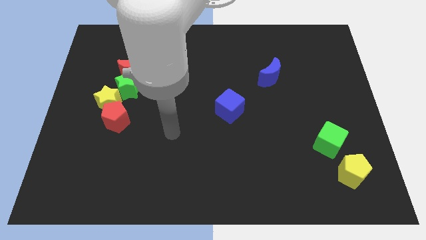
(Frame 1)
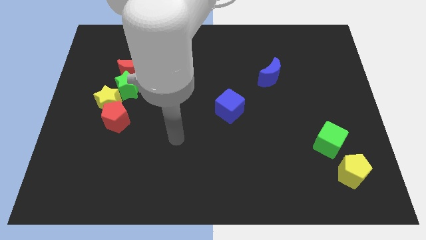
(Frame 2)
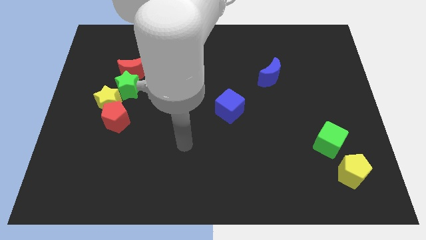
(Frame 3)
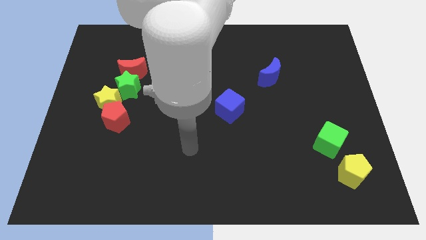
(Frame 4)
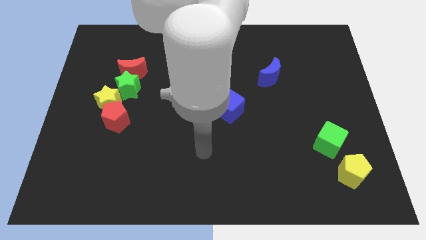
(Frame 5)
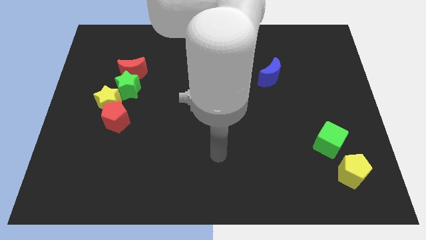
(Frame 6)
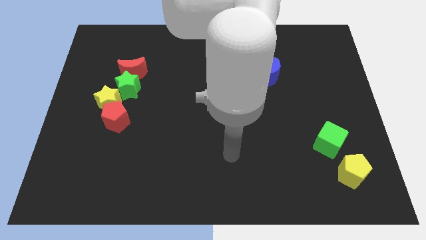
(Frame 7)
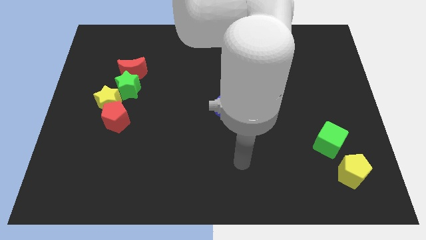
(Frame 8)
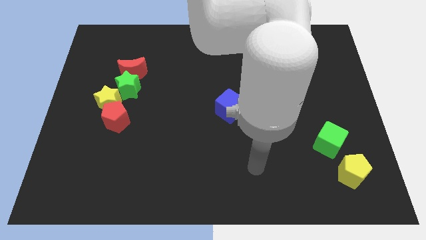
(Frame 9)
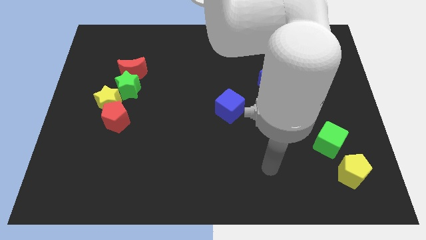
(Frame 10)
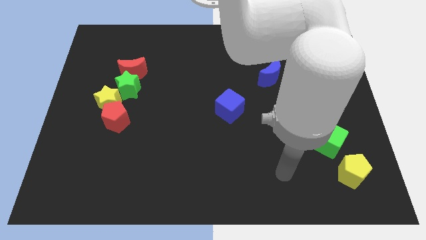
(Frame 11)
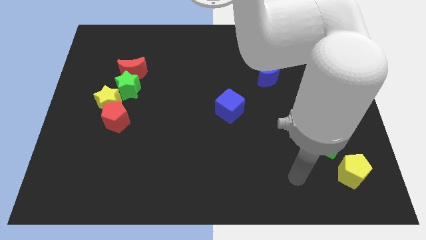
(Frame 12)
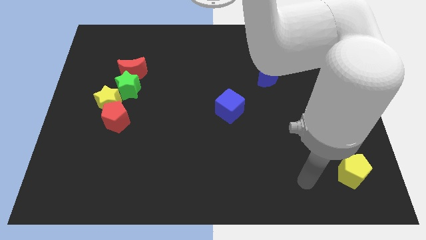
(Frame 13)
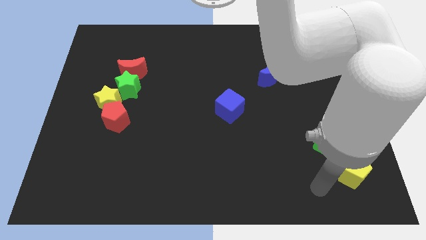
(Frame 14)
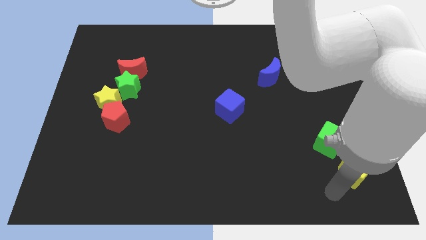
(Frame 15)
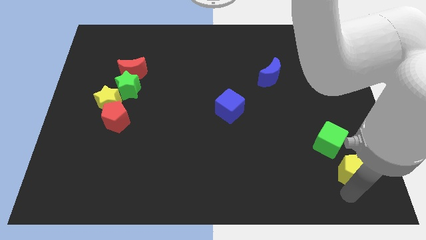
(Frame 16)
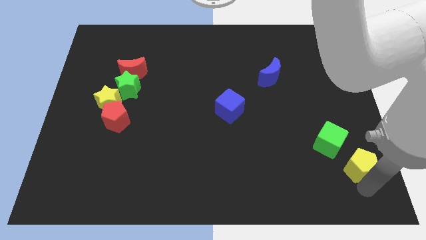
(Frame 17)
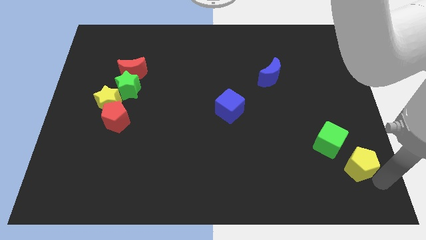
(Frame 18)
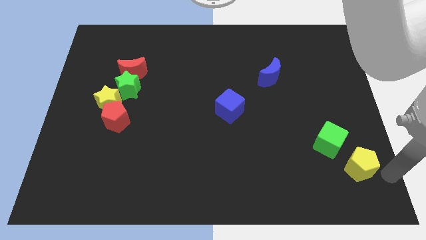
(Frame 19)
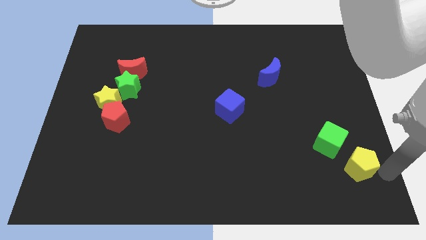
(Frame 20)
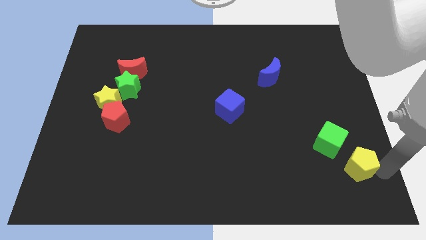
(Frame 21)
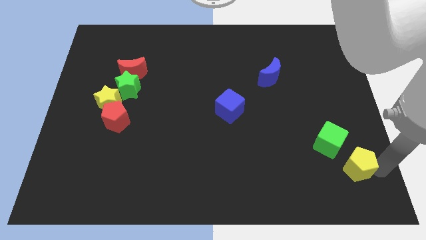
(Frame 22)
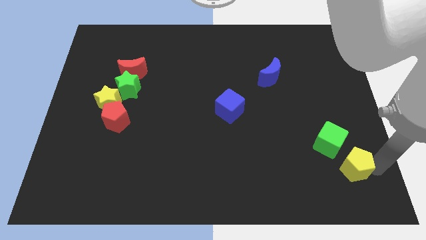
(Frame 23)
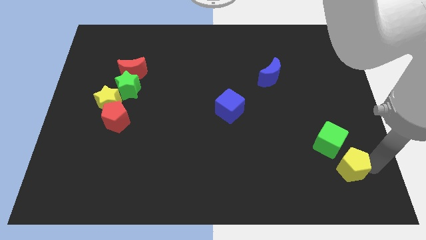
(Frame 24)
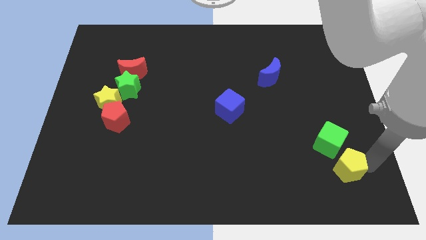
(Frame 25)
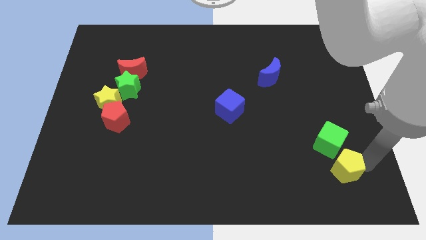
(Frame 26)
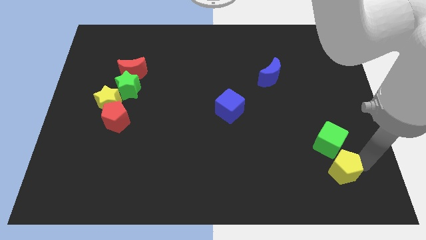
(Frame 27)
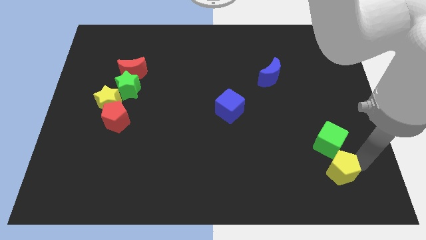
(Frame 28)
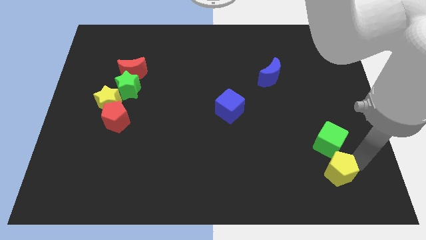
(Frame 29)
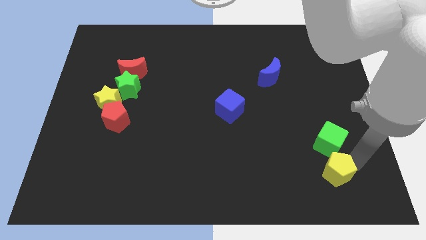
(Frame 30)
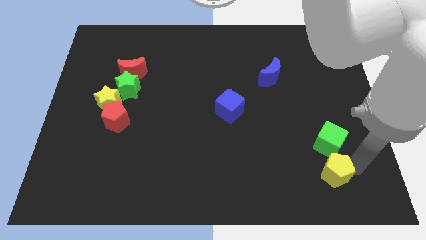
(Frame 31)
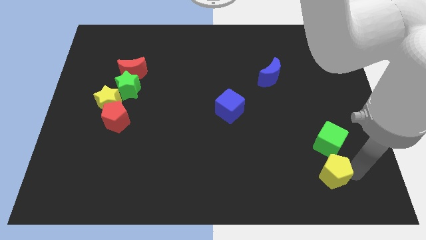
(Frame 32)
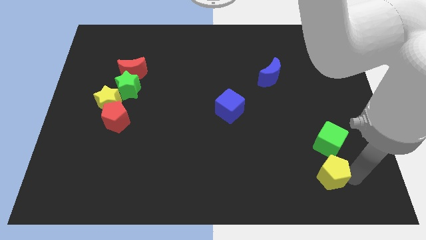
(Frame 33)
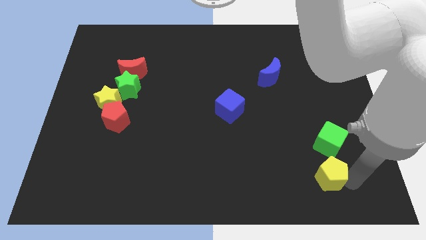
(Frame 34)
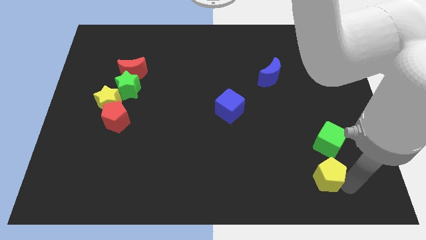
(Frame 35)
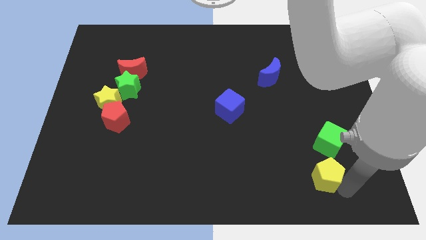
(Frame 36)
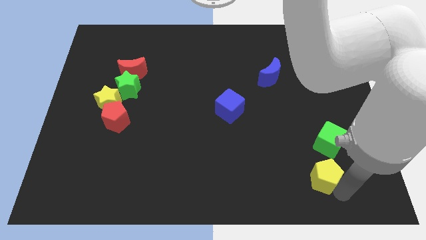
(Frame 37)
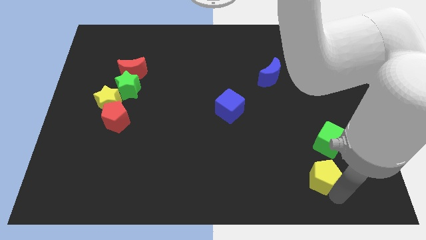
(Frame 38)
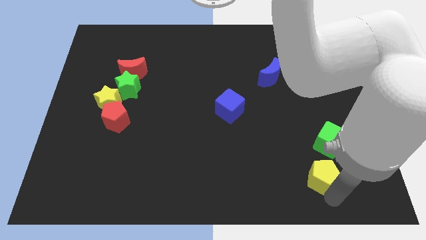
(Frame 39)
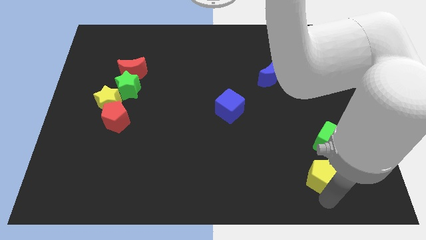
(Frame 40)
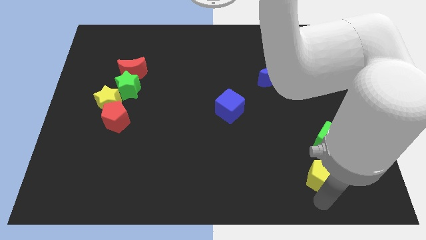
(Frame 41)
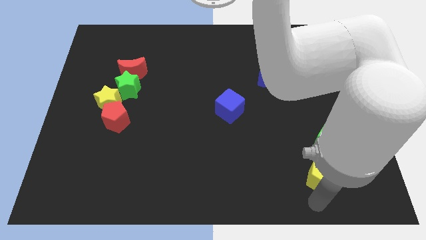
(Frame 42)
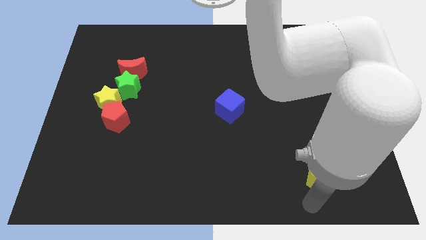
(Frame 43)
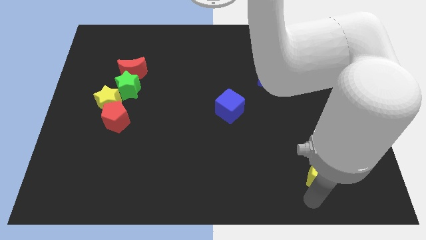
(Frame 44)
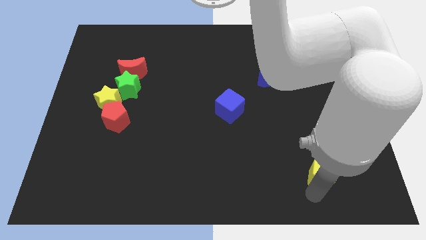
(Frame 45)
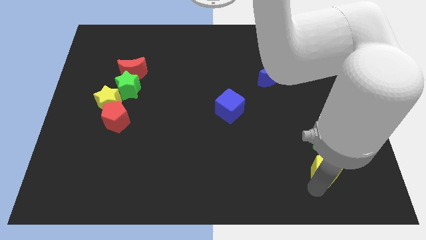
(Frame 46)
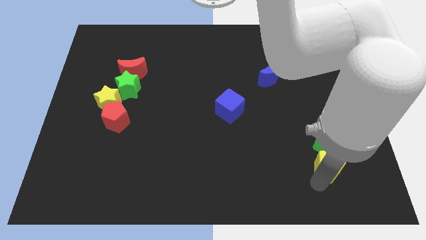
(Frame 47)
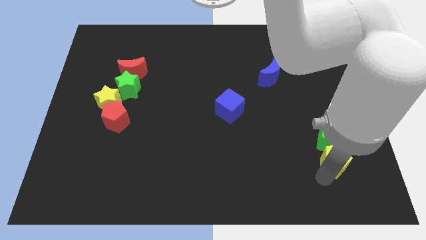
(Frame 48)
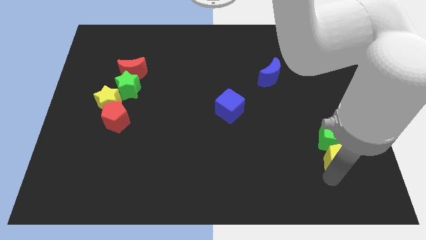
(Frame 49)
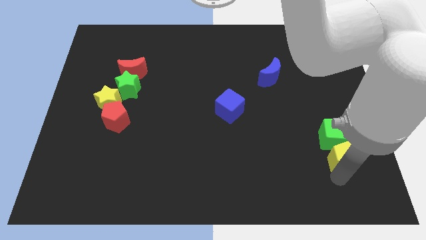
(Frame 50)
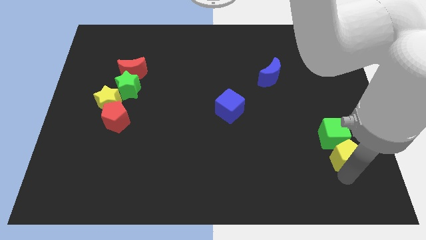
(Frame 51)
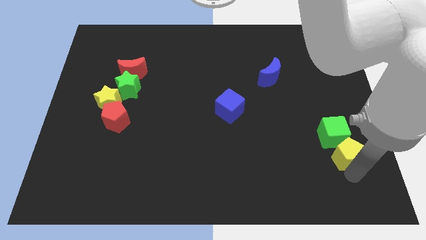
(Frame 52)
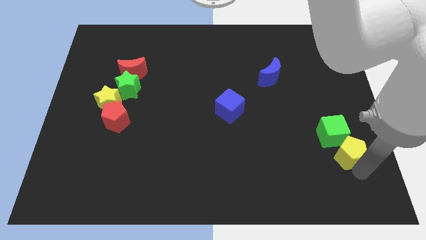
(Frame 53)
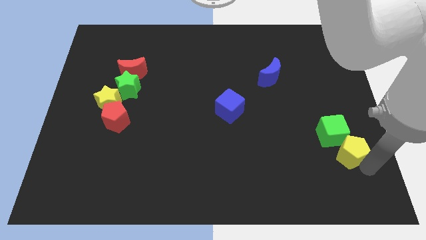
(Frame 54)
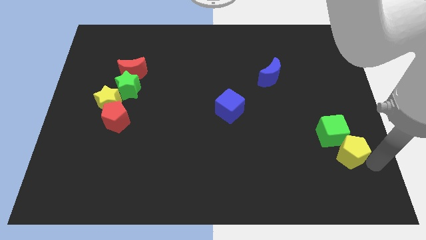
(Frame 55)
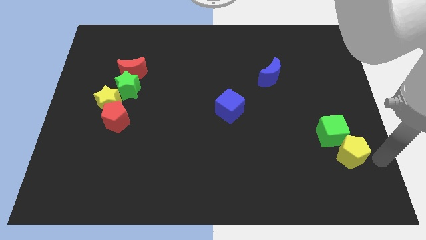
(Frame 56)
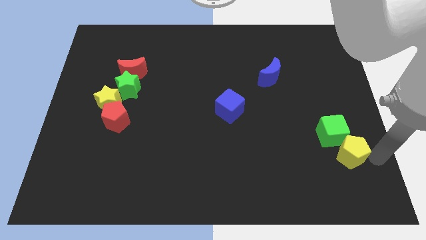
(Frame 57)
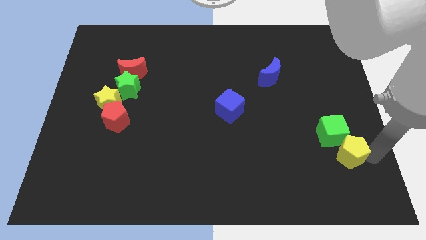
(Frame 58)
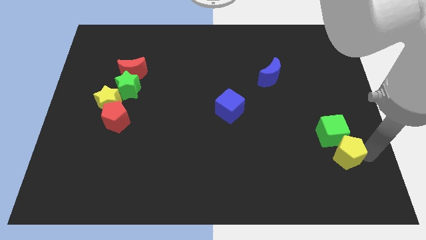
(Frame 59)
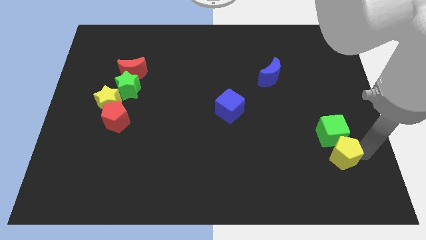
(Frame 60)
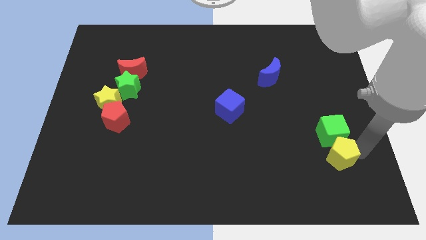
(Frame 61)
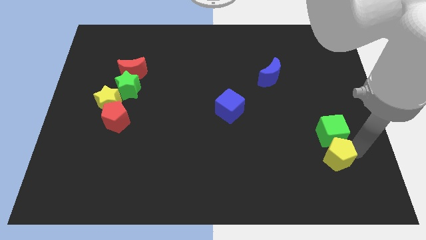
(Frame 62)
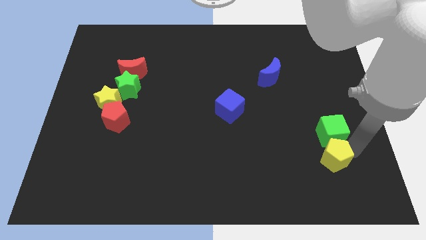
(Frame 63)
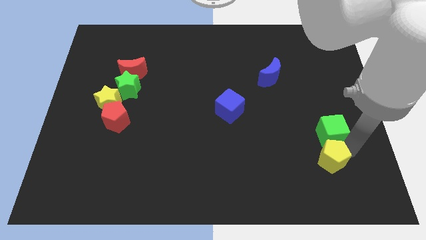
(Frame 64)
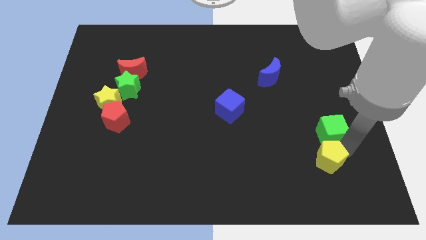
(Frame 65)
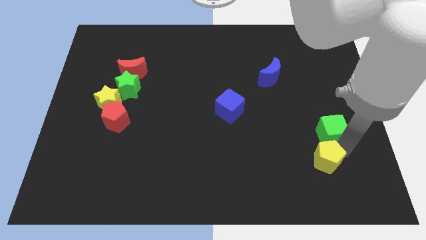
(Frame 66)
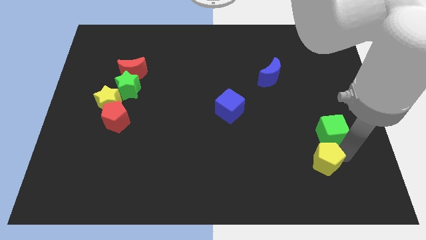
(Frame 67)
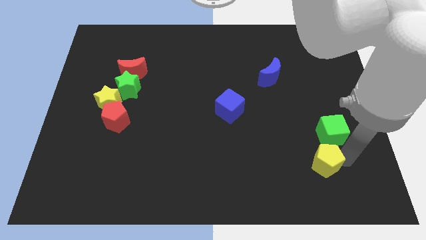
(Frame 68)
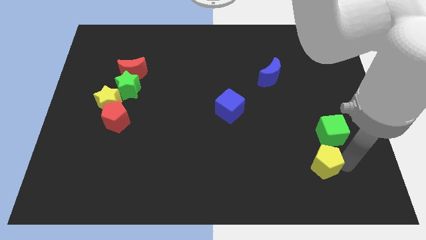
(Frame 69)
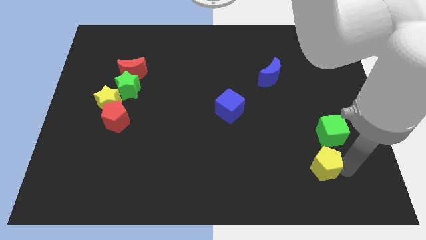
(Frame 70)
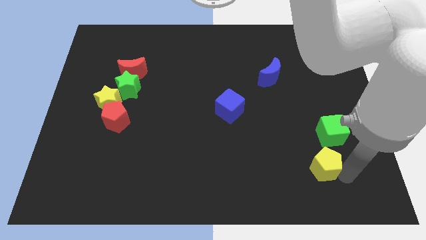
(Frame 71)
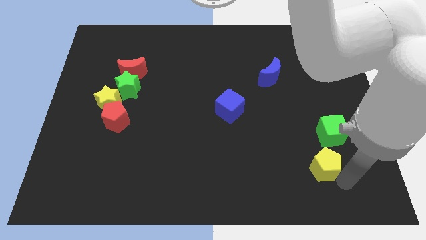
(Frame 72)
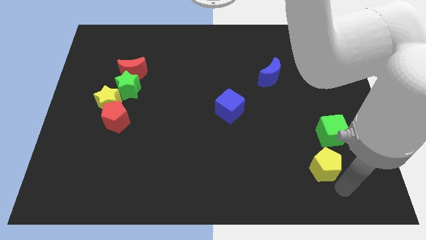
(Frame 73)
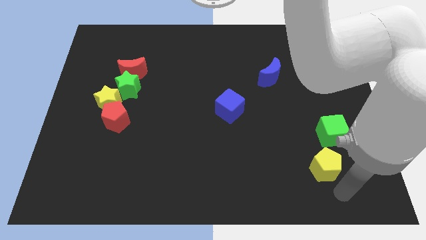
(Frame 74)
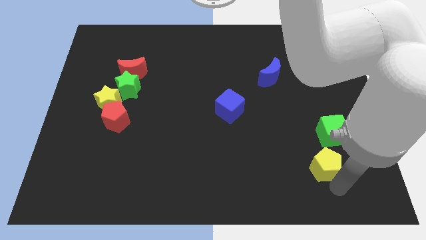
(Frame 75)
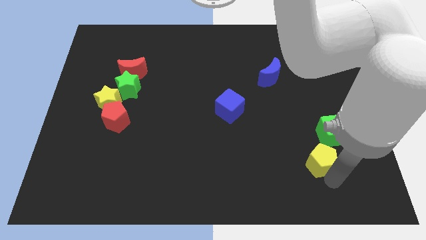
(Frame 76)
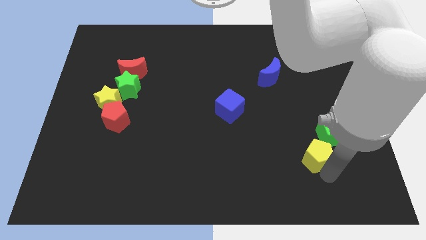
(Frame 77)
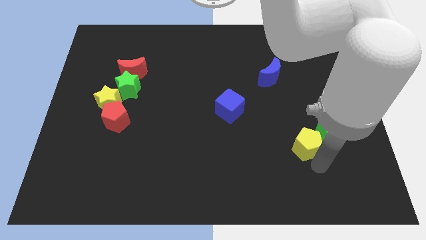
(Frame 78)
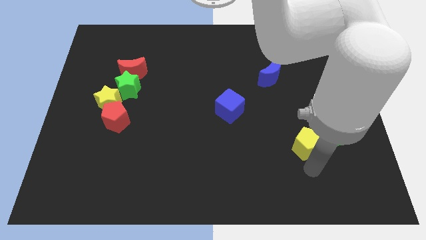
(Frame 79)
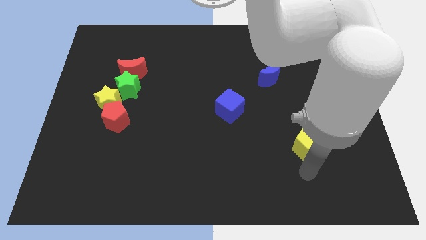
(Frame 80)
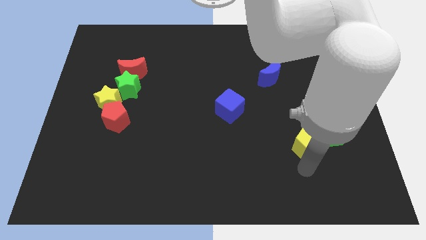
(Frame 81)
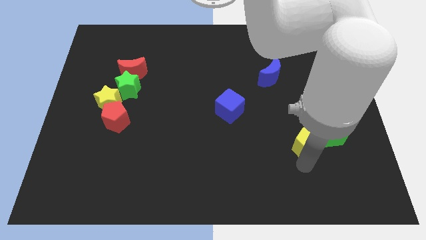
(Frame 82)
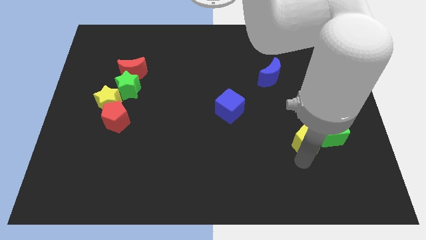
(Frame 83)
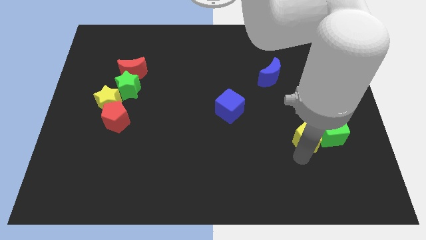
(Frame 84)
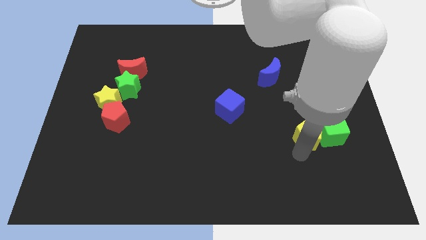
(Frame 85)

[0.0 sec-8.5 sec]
put the yellow pentagon diagonally up and to the left of the green cube
